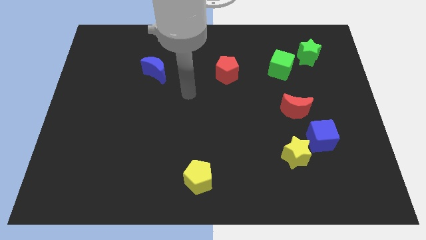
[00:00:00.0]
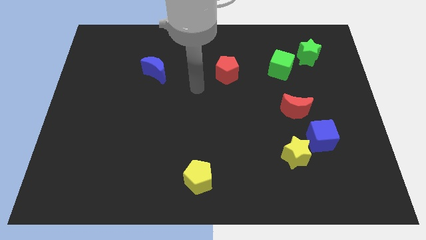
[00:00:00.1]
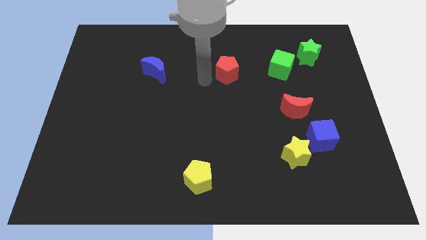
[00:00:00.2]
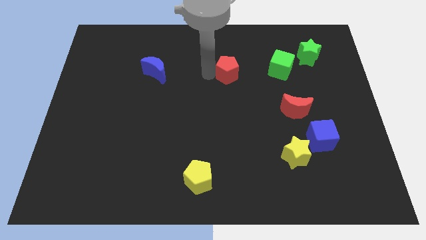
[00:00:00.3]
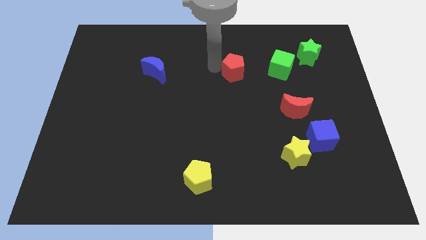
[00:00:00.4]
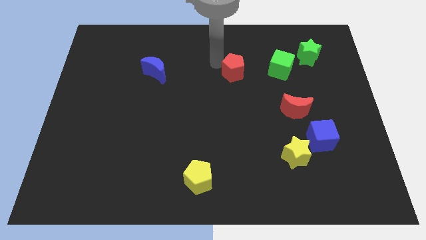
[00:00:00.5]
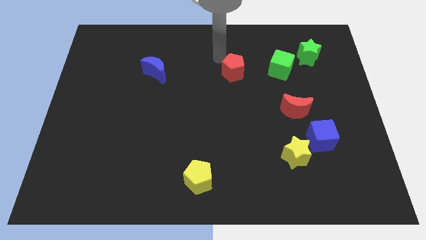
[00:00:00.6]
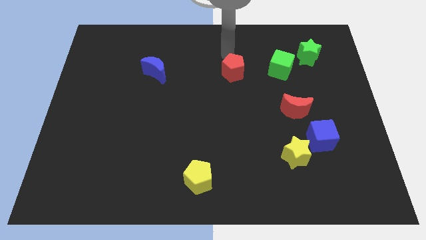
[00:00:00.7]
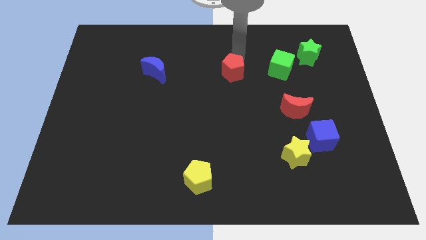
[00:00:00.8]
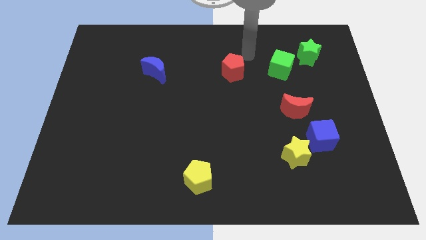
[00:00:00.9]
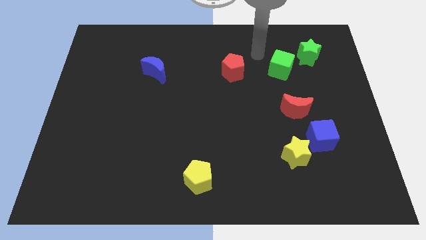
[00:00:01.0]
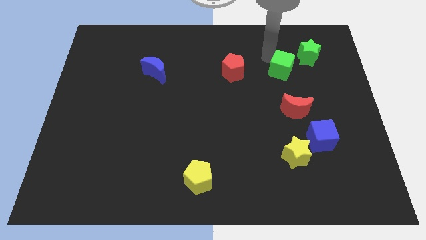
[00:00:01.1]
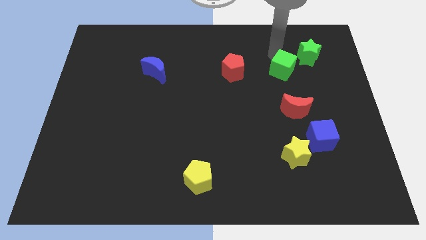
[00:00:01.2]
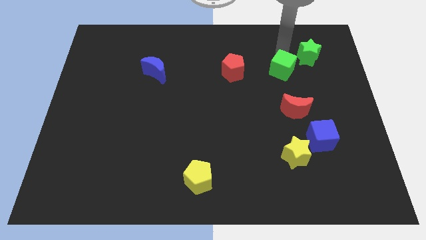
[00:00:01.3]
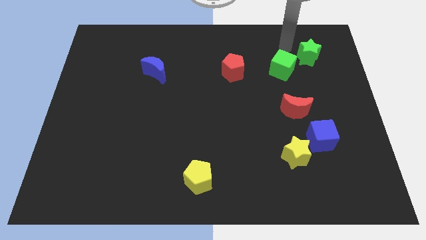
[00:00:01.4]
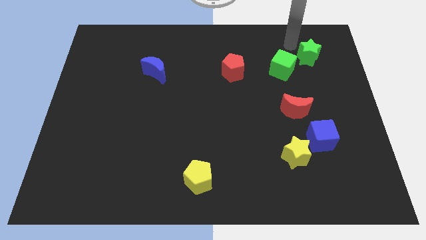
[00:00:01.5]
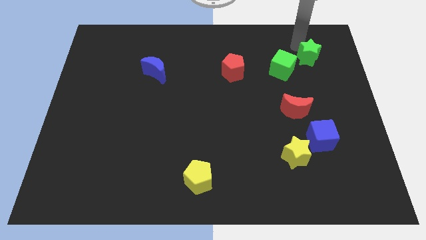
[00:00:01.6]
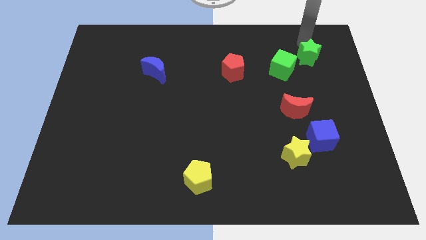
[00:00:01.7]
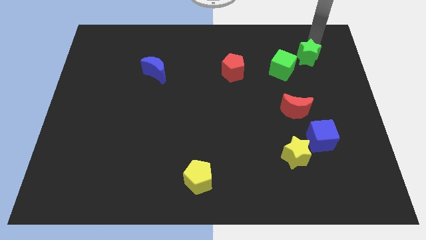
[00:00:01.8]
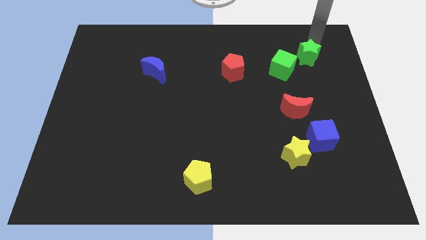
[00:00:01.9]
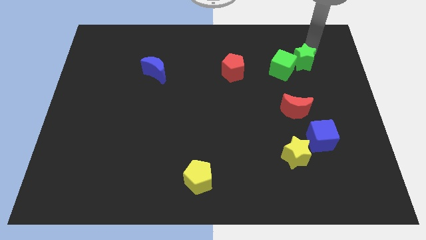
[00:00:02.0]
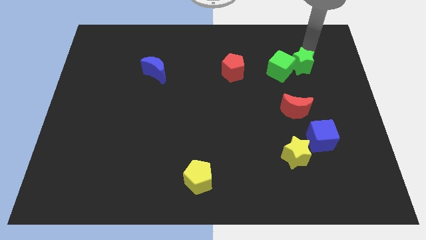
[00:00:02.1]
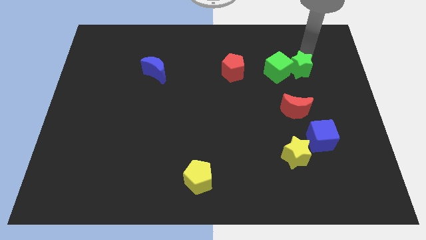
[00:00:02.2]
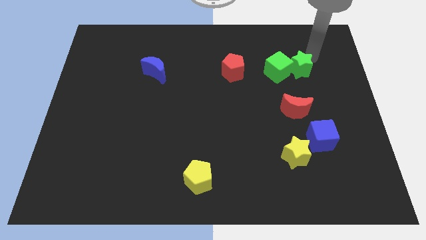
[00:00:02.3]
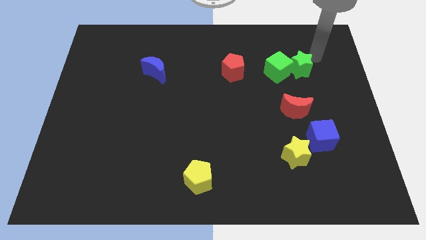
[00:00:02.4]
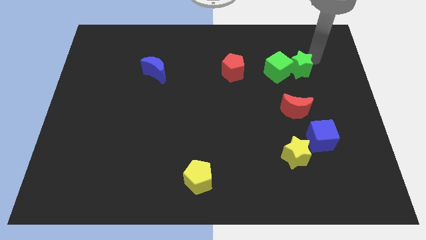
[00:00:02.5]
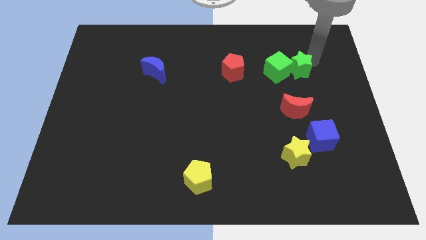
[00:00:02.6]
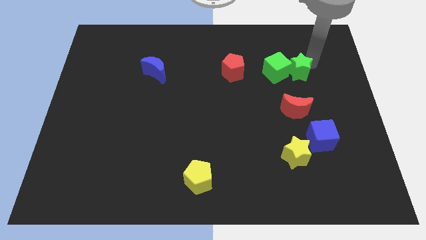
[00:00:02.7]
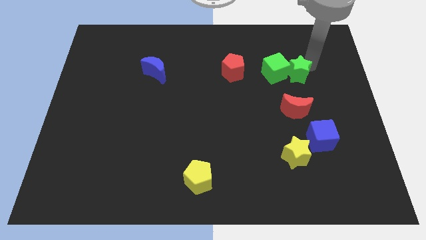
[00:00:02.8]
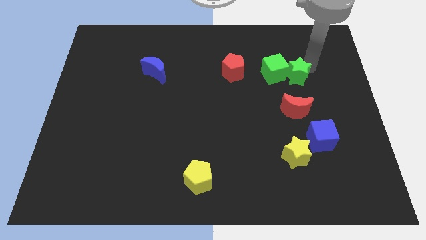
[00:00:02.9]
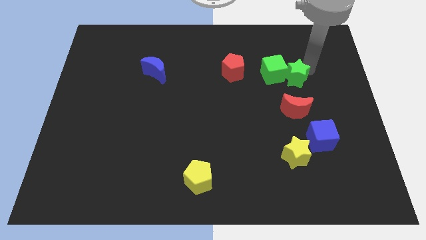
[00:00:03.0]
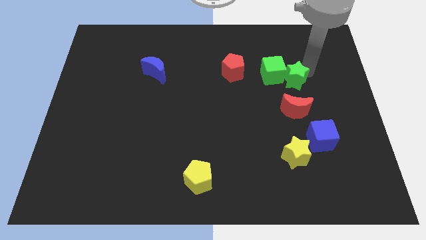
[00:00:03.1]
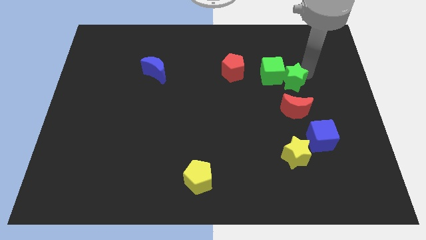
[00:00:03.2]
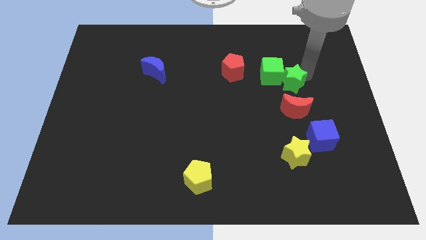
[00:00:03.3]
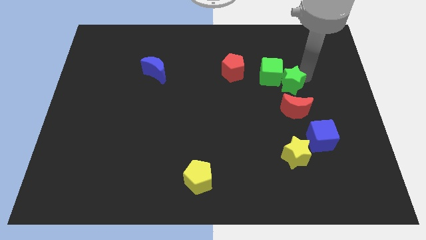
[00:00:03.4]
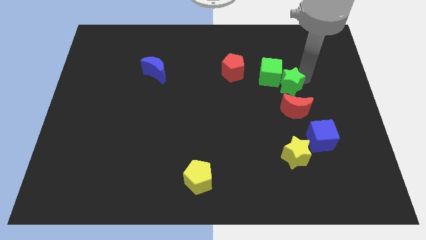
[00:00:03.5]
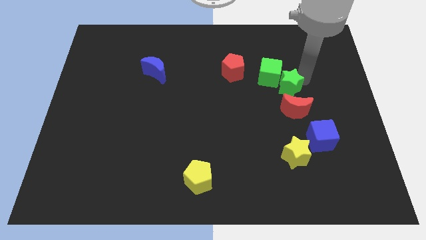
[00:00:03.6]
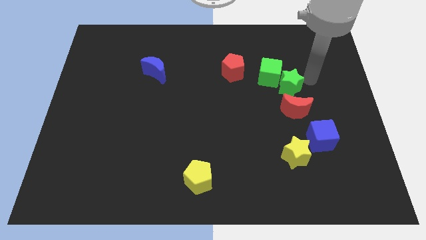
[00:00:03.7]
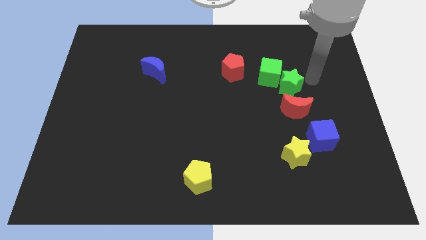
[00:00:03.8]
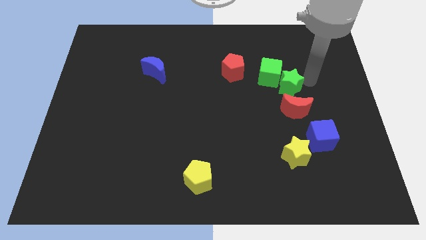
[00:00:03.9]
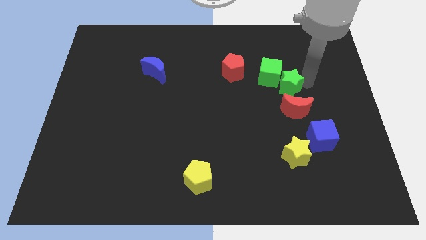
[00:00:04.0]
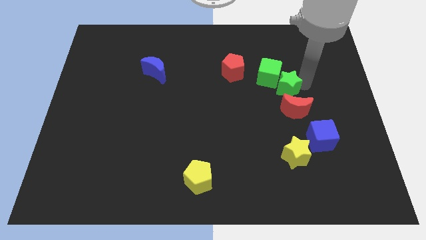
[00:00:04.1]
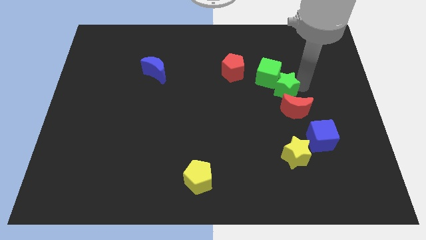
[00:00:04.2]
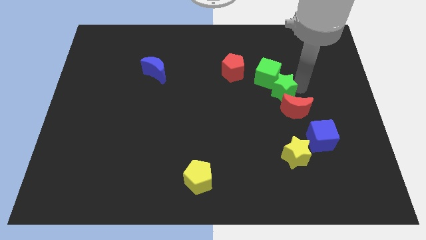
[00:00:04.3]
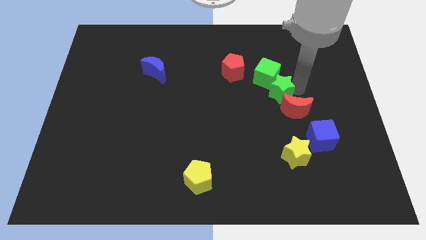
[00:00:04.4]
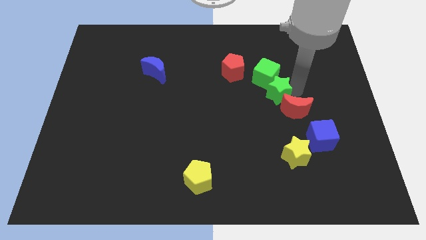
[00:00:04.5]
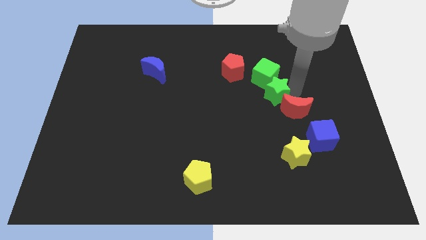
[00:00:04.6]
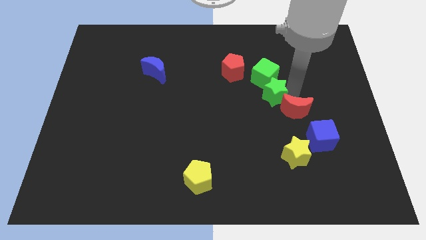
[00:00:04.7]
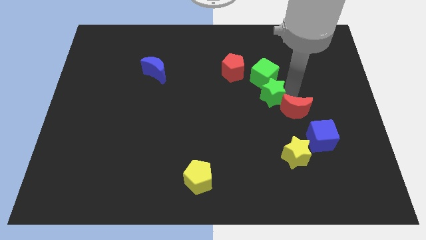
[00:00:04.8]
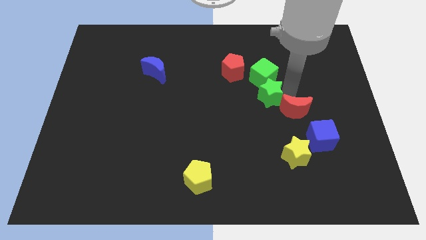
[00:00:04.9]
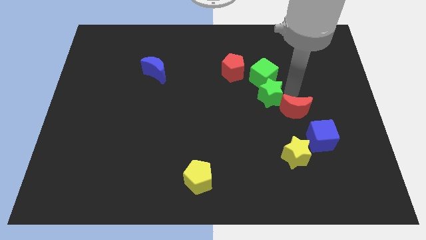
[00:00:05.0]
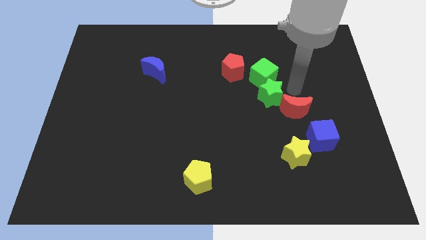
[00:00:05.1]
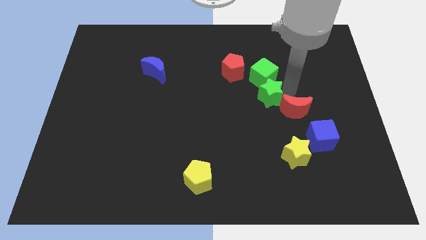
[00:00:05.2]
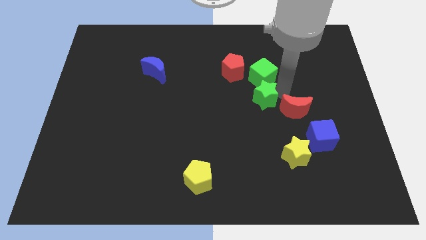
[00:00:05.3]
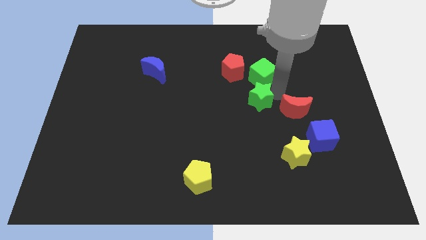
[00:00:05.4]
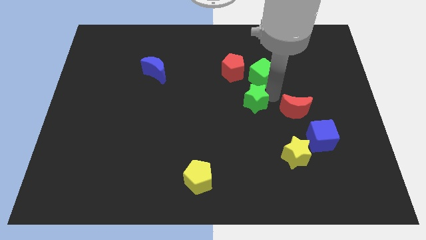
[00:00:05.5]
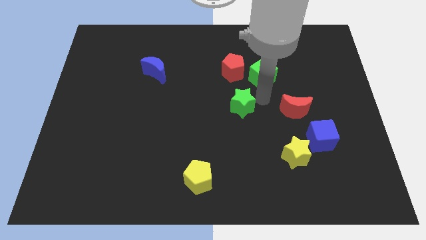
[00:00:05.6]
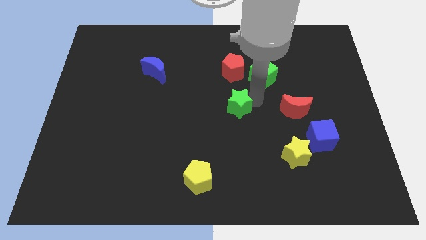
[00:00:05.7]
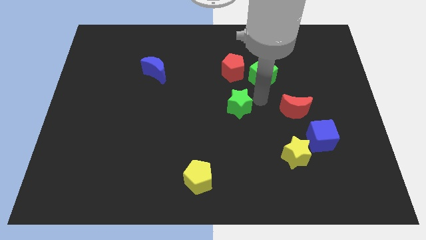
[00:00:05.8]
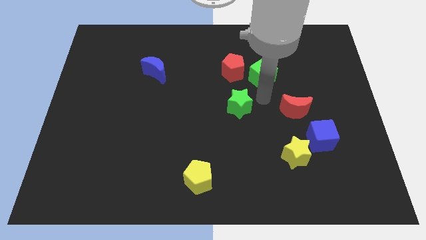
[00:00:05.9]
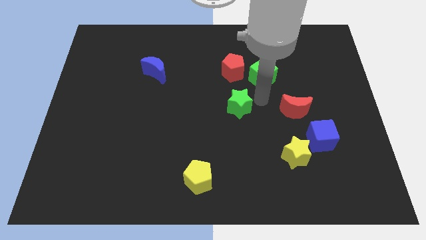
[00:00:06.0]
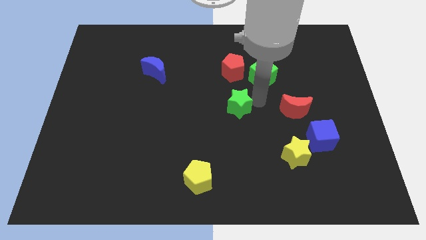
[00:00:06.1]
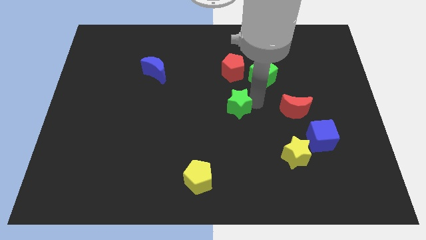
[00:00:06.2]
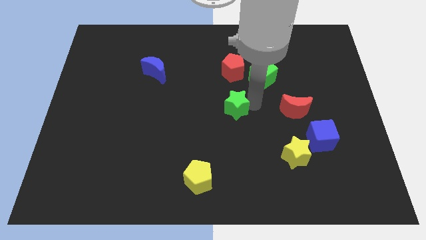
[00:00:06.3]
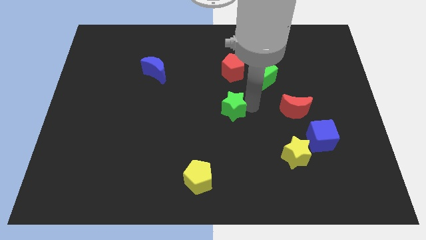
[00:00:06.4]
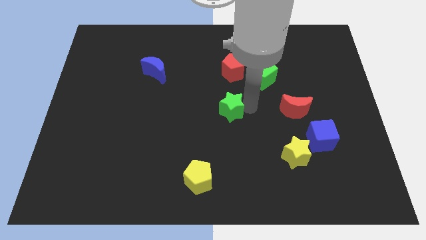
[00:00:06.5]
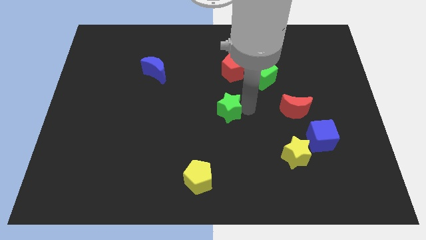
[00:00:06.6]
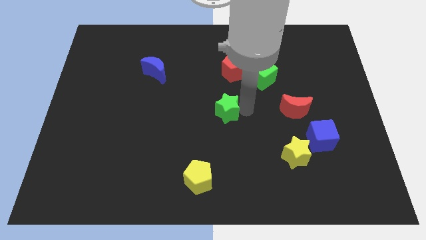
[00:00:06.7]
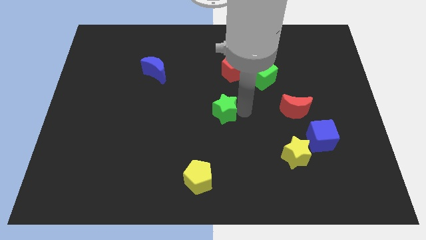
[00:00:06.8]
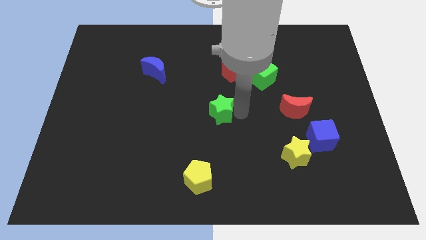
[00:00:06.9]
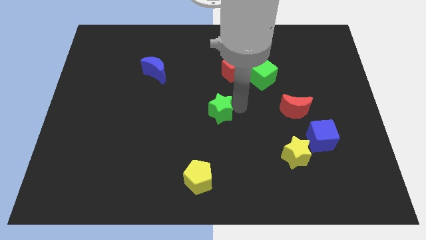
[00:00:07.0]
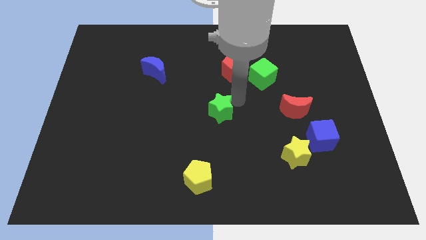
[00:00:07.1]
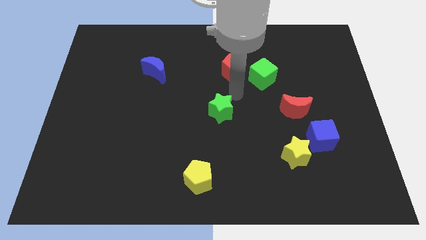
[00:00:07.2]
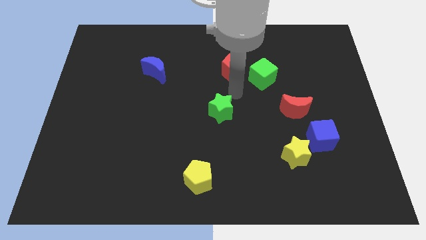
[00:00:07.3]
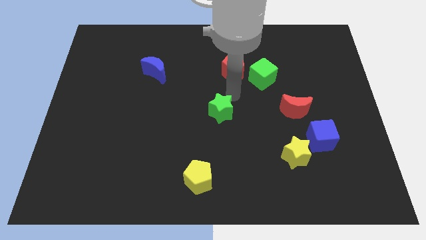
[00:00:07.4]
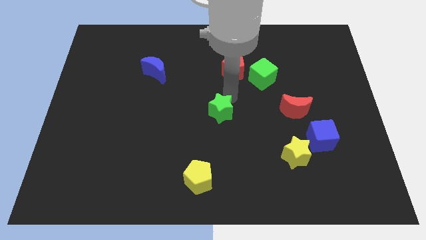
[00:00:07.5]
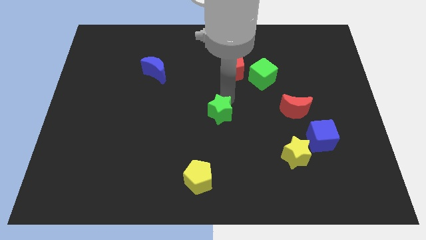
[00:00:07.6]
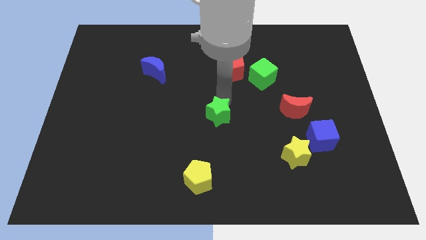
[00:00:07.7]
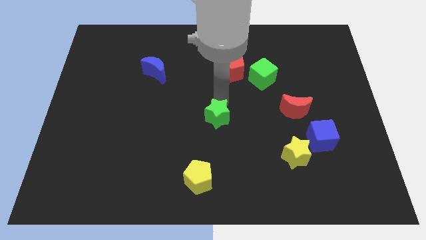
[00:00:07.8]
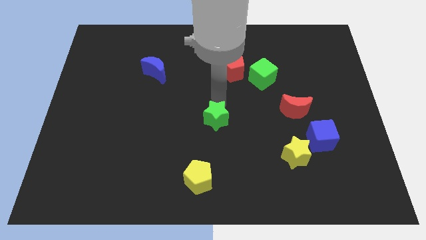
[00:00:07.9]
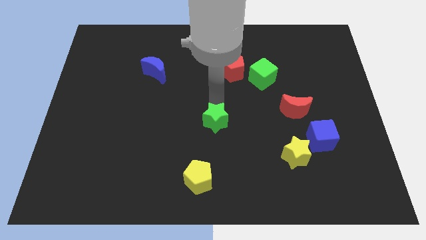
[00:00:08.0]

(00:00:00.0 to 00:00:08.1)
move the green star above the yellow pentagon
